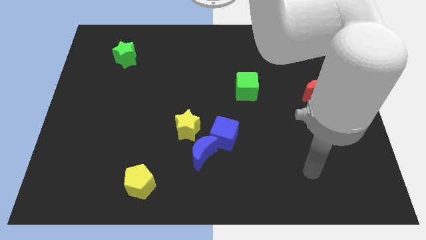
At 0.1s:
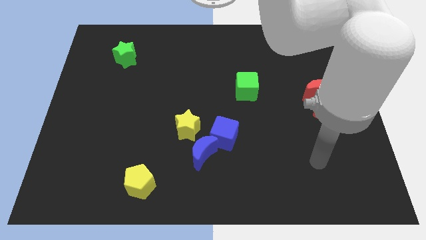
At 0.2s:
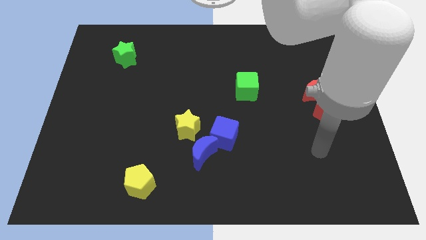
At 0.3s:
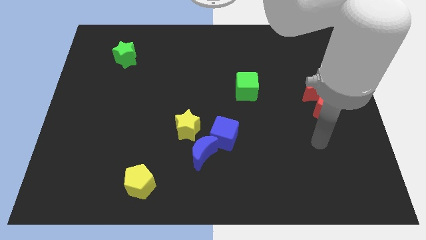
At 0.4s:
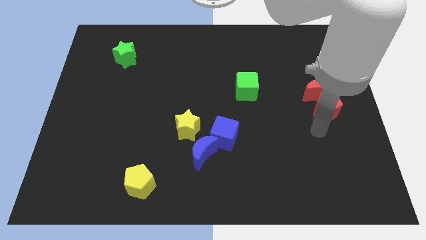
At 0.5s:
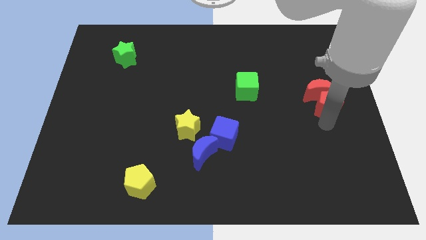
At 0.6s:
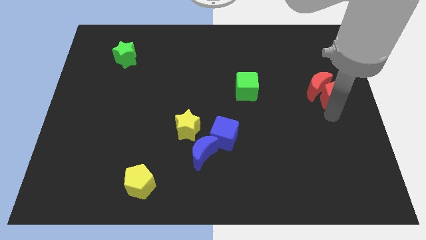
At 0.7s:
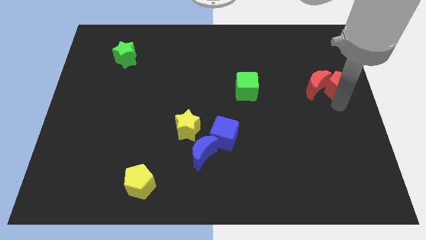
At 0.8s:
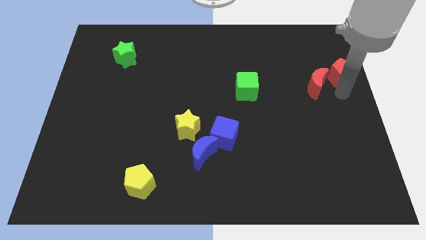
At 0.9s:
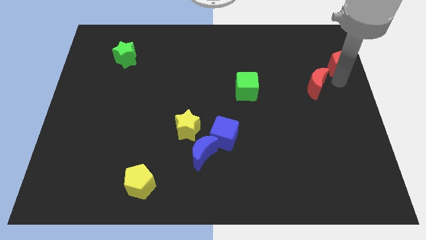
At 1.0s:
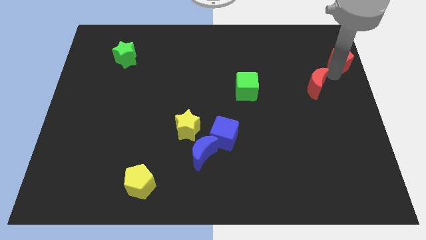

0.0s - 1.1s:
move the red moon away from the red pentagon

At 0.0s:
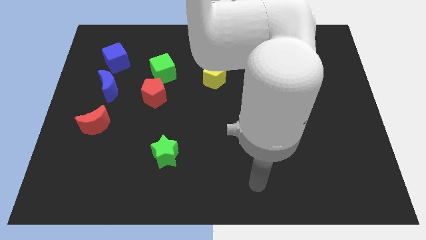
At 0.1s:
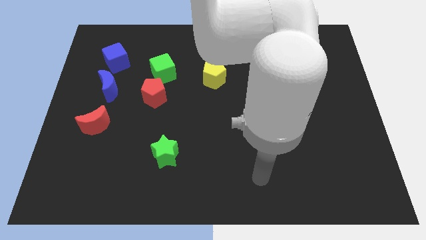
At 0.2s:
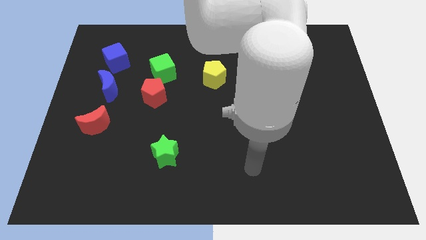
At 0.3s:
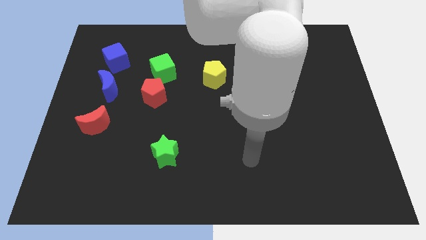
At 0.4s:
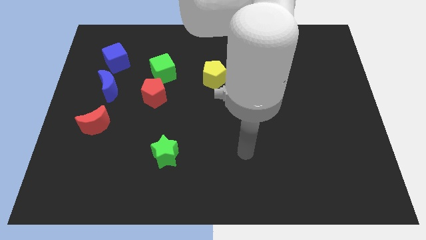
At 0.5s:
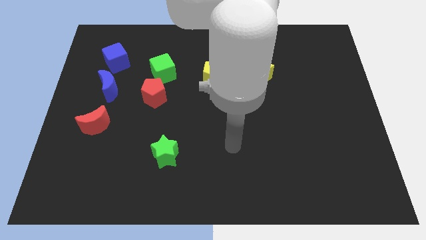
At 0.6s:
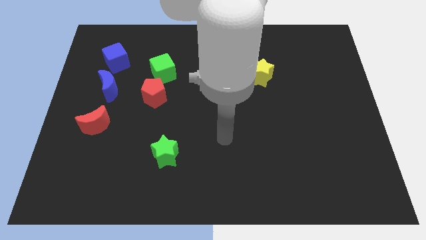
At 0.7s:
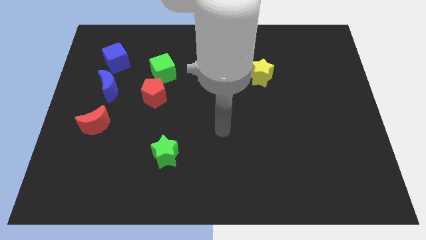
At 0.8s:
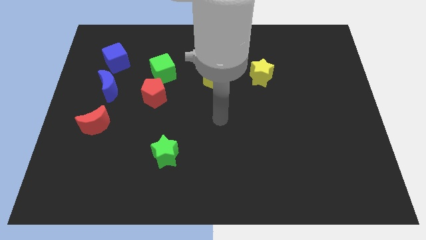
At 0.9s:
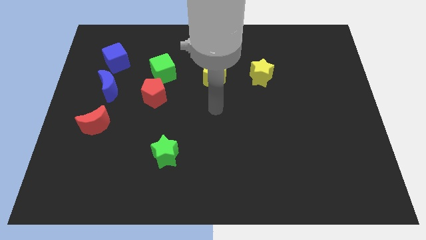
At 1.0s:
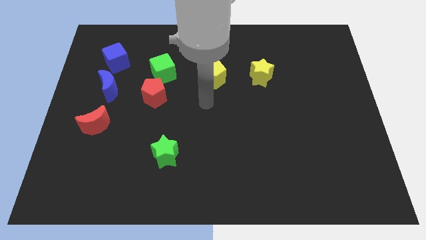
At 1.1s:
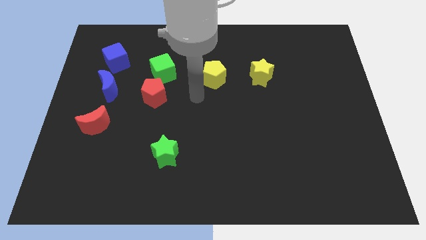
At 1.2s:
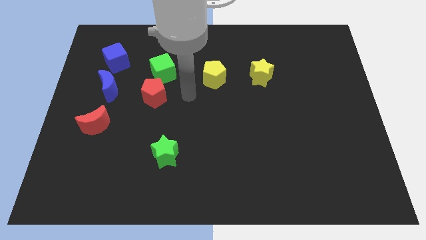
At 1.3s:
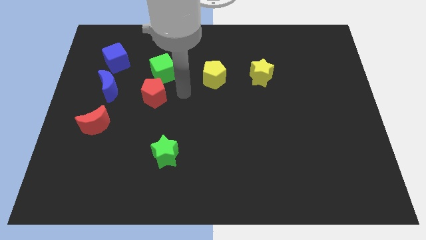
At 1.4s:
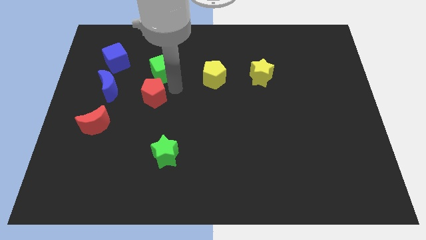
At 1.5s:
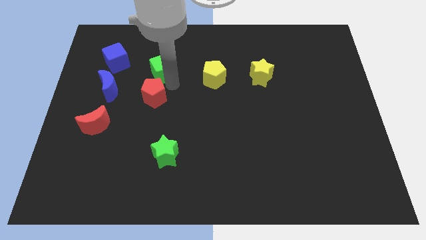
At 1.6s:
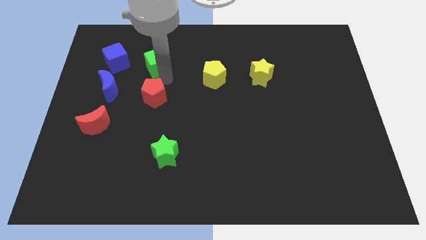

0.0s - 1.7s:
move the red pentagon away from the green cube

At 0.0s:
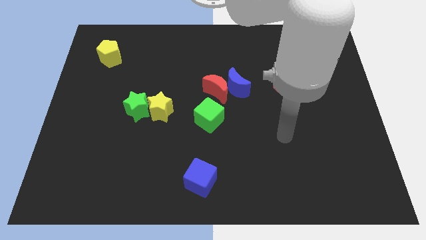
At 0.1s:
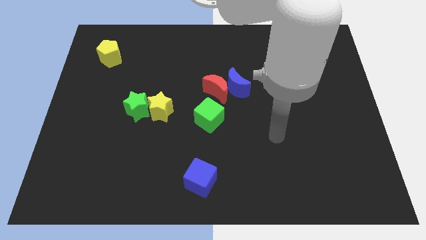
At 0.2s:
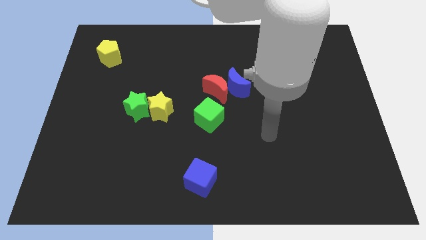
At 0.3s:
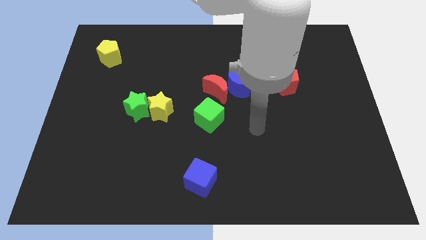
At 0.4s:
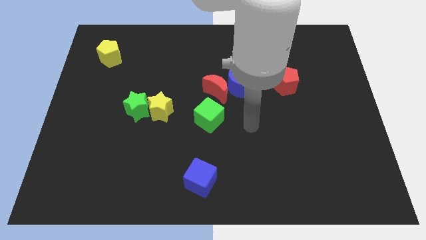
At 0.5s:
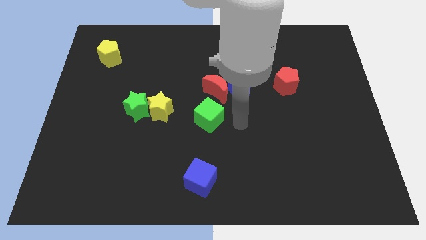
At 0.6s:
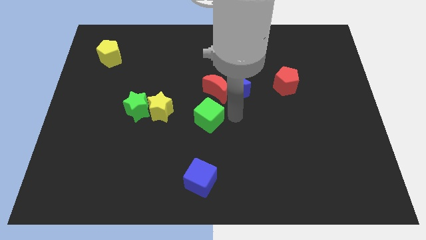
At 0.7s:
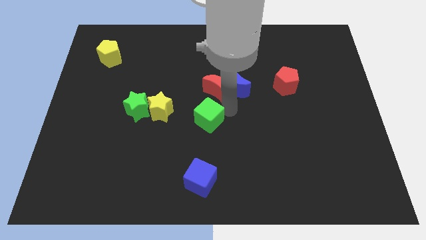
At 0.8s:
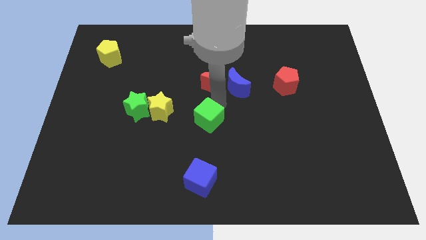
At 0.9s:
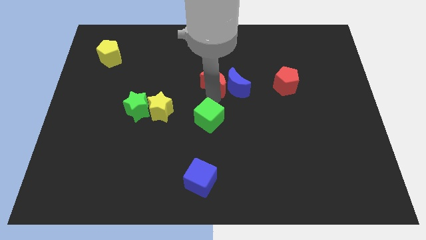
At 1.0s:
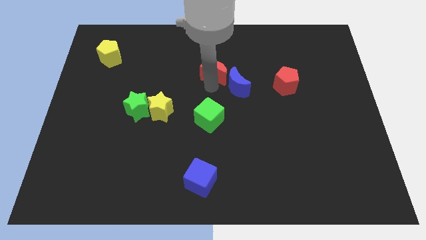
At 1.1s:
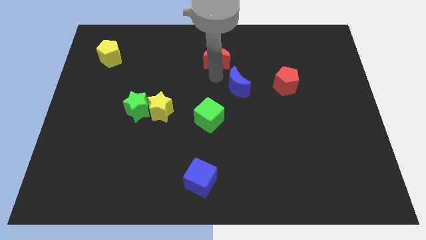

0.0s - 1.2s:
move the blue moon away from the red moon

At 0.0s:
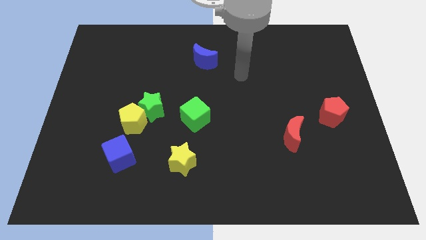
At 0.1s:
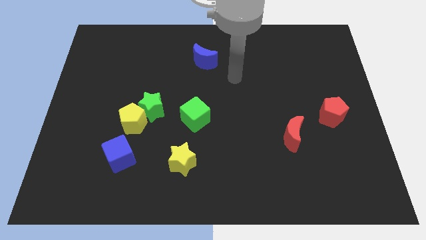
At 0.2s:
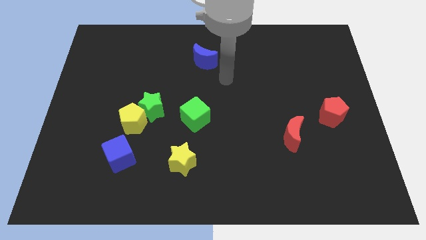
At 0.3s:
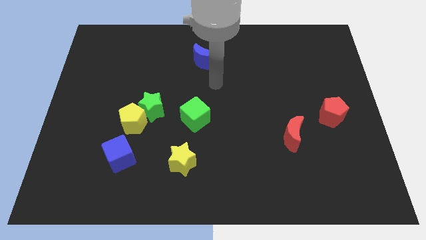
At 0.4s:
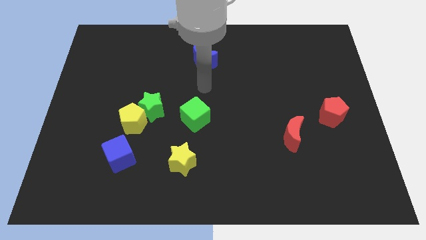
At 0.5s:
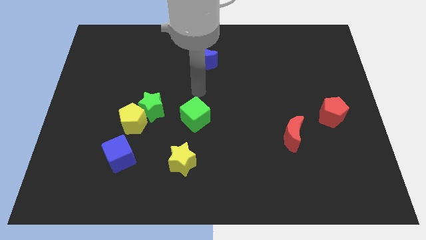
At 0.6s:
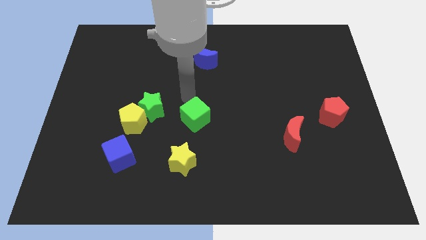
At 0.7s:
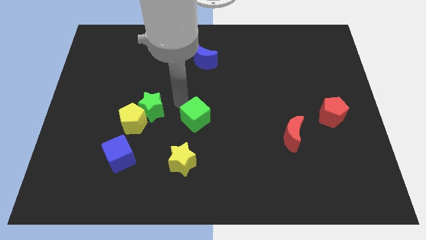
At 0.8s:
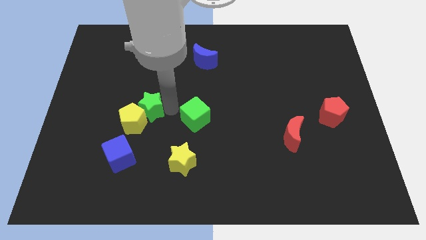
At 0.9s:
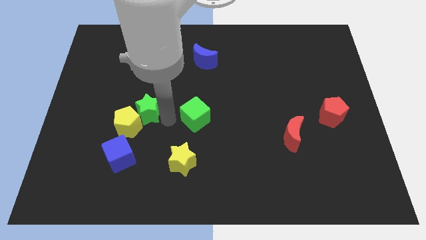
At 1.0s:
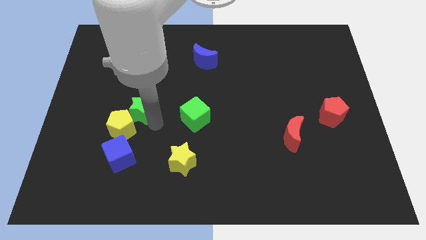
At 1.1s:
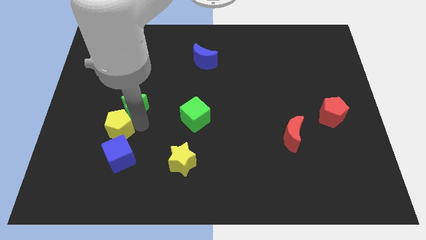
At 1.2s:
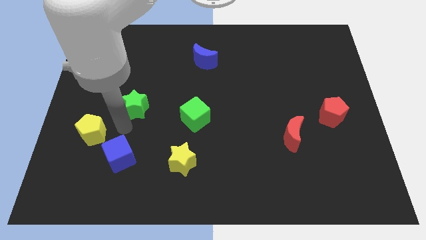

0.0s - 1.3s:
move the green star away from the yellow pentagon

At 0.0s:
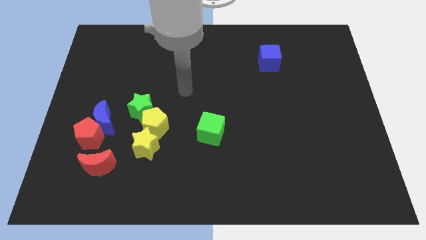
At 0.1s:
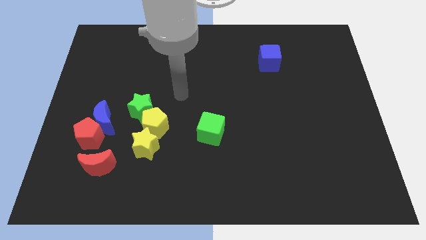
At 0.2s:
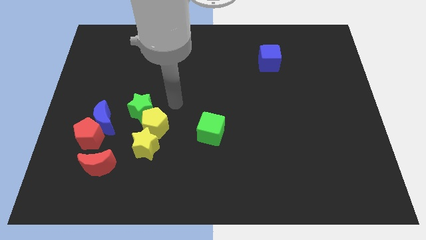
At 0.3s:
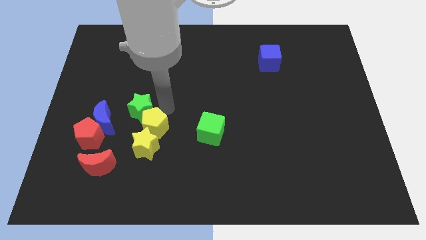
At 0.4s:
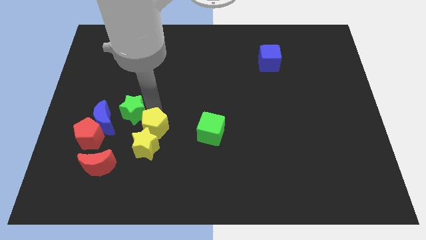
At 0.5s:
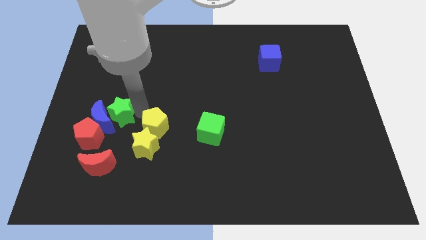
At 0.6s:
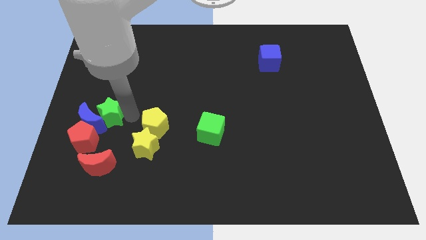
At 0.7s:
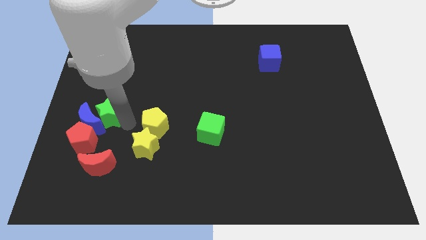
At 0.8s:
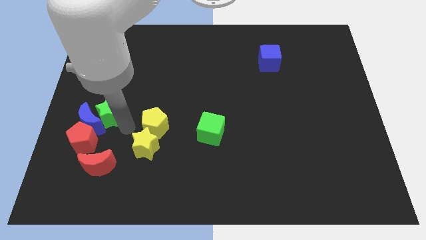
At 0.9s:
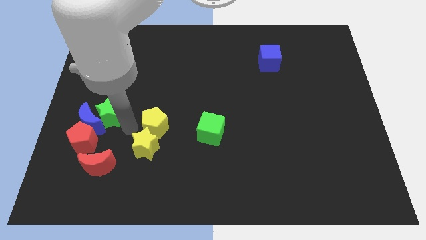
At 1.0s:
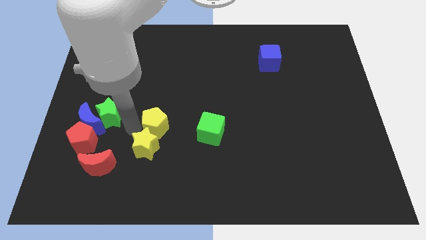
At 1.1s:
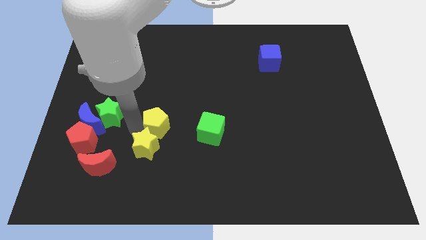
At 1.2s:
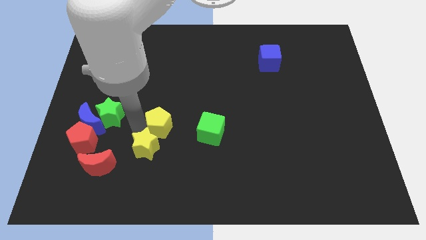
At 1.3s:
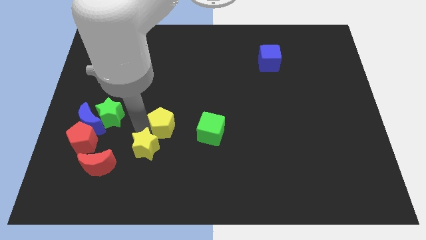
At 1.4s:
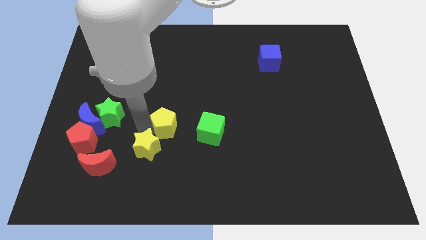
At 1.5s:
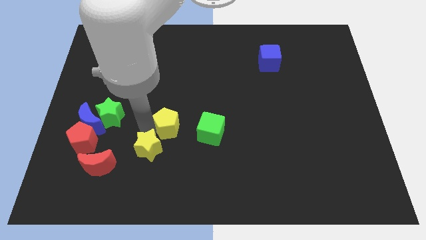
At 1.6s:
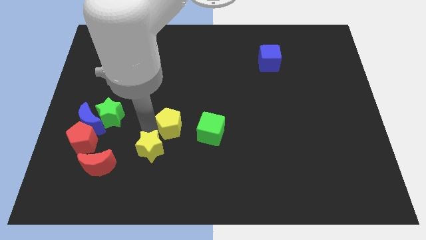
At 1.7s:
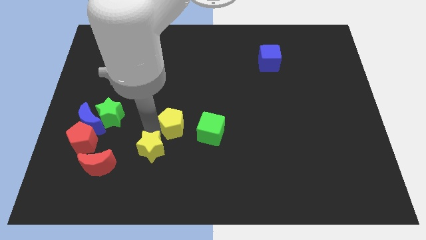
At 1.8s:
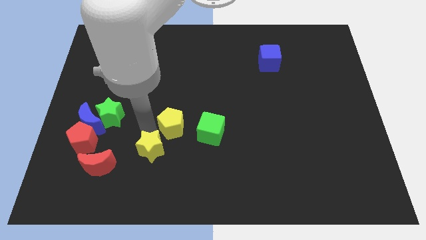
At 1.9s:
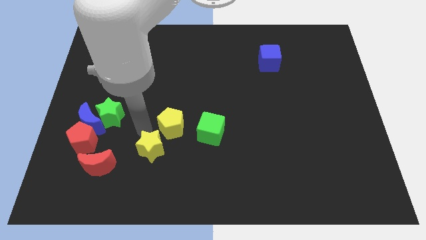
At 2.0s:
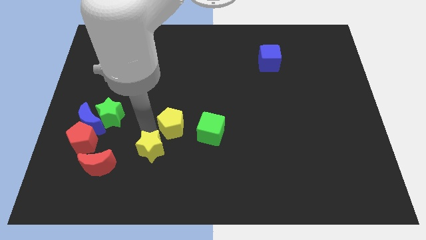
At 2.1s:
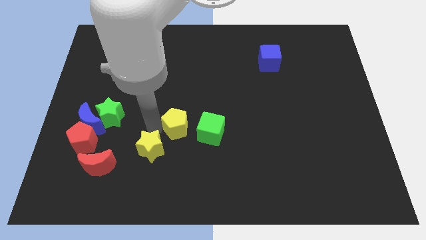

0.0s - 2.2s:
separate the yellow pentagon from the green star and yellow star

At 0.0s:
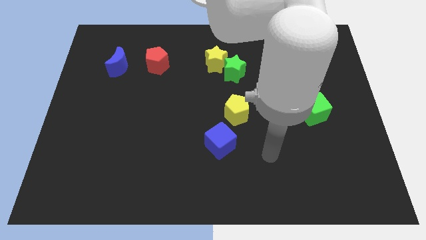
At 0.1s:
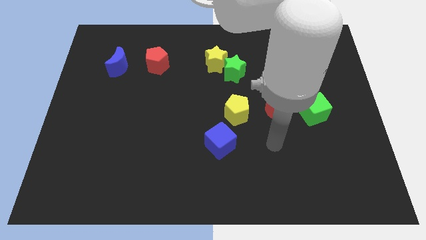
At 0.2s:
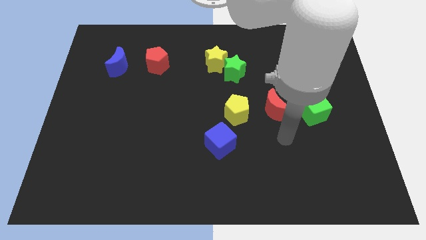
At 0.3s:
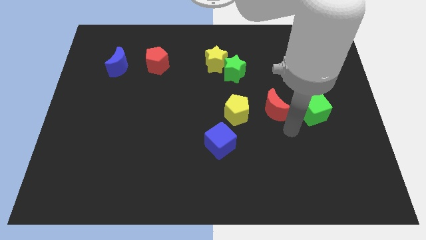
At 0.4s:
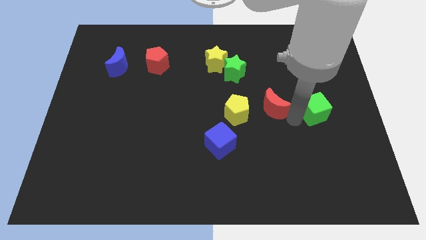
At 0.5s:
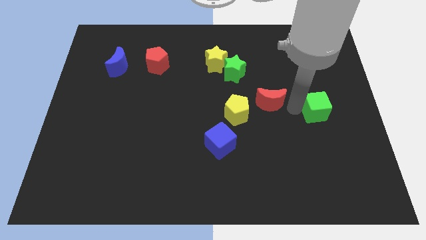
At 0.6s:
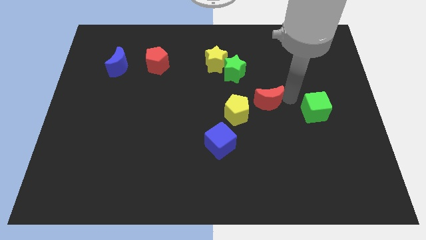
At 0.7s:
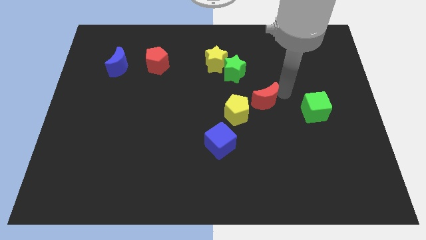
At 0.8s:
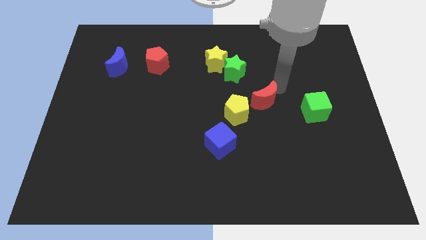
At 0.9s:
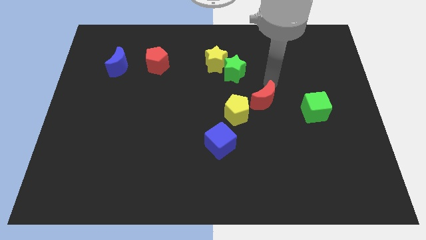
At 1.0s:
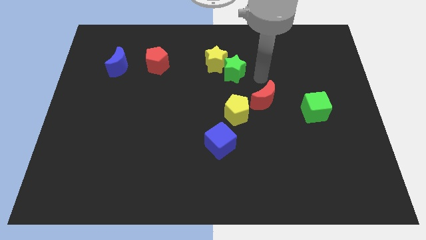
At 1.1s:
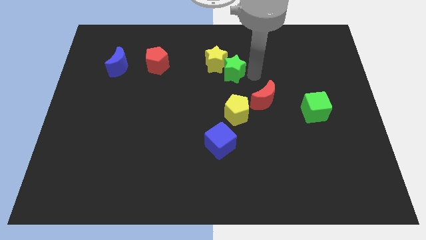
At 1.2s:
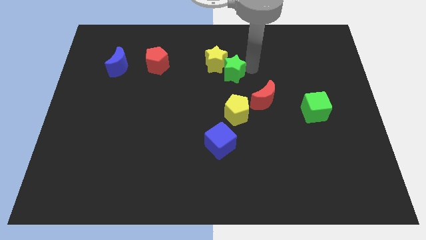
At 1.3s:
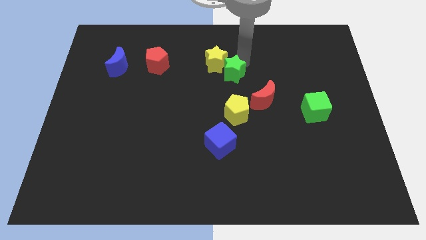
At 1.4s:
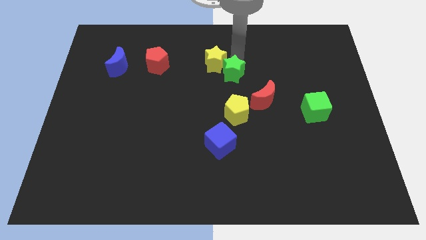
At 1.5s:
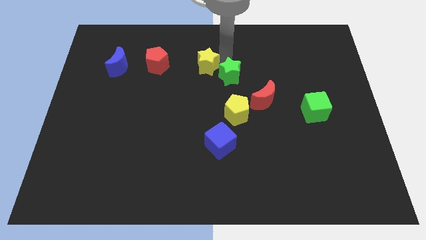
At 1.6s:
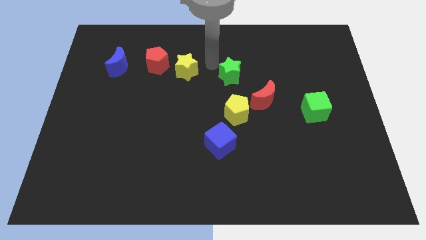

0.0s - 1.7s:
move the green star away from the yellow star
